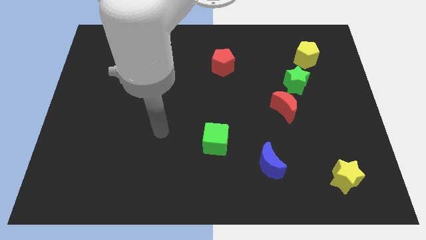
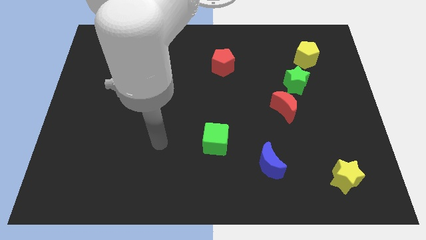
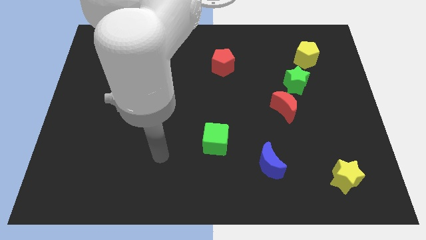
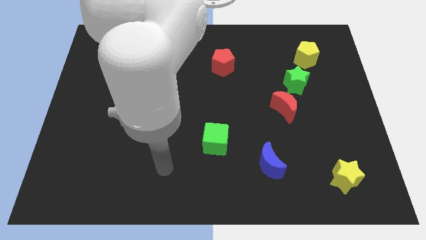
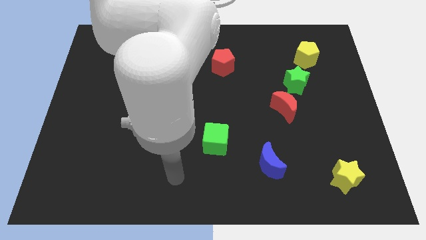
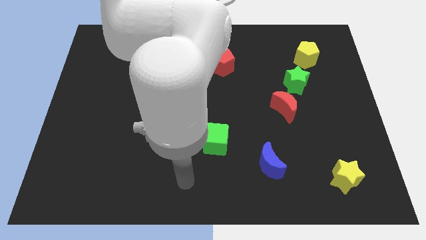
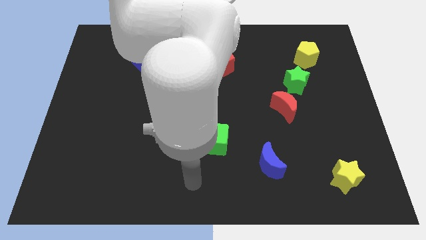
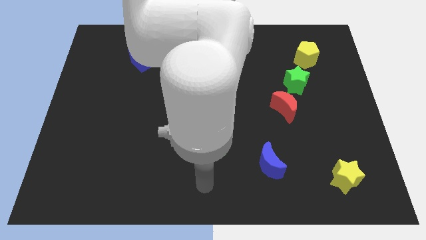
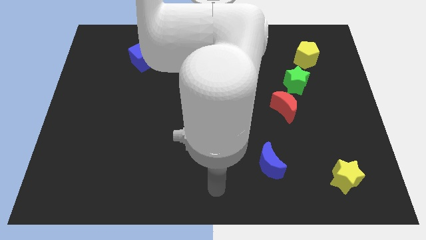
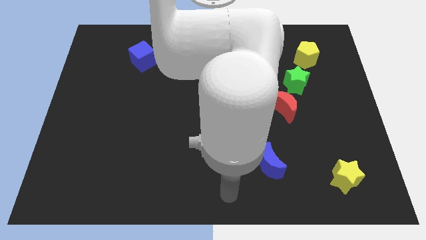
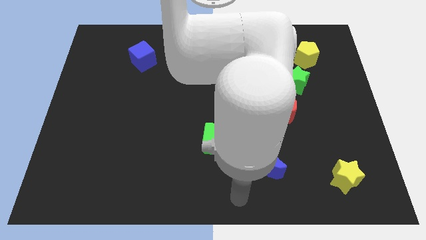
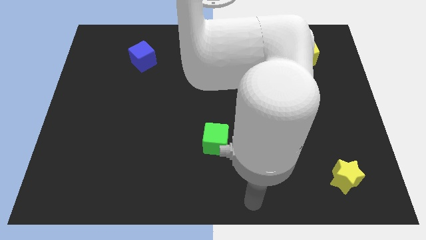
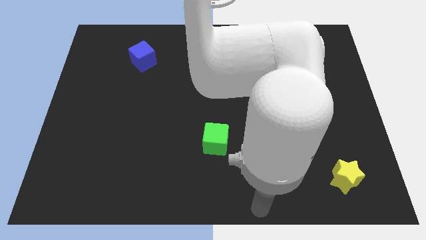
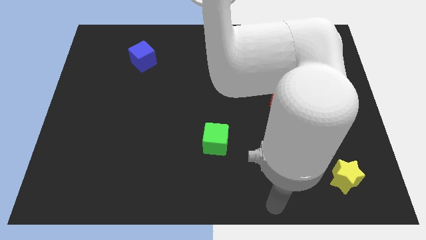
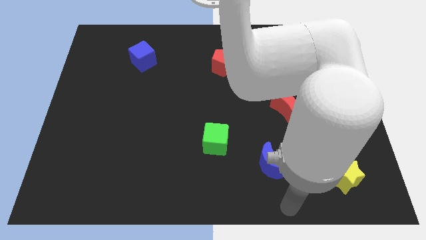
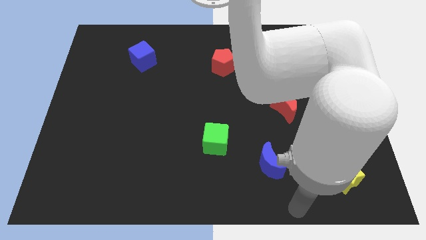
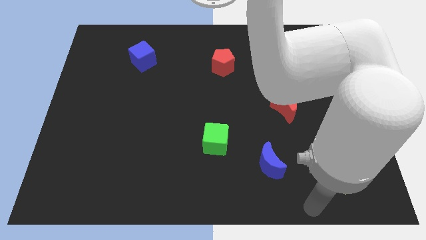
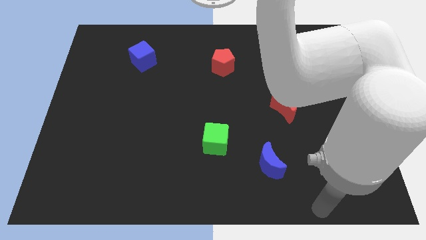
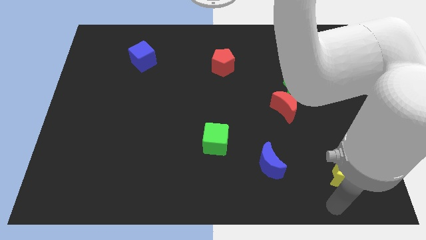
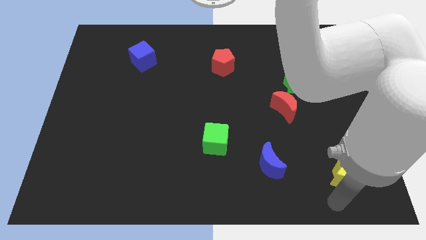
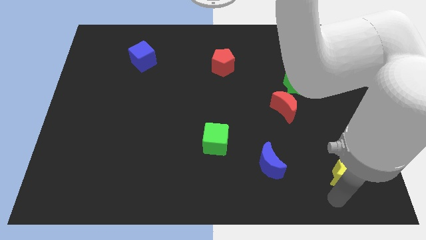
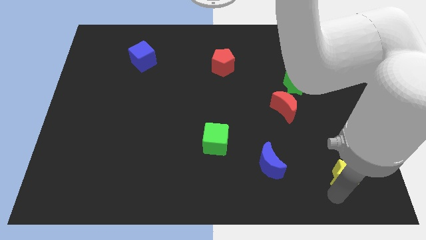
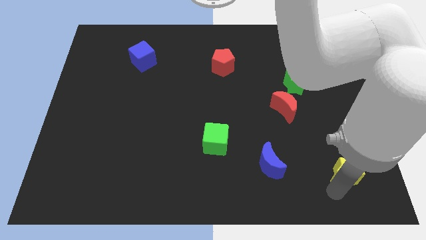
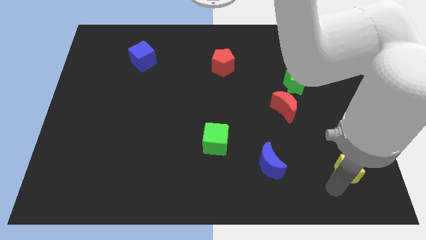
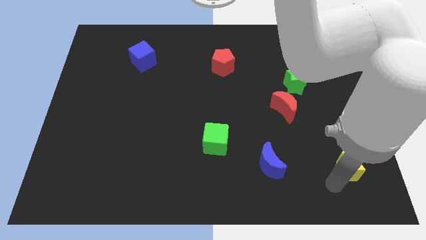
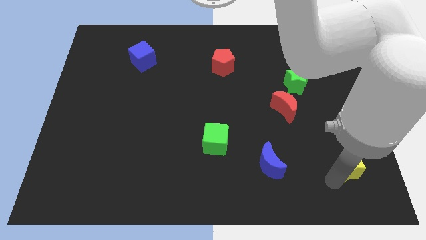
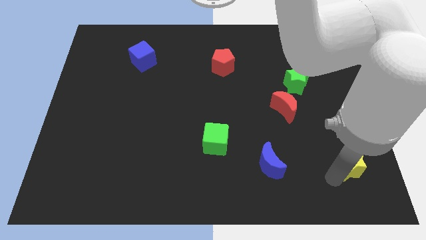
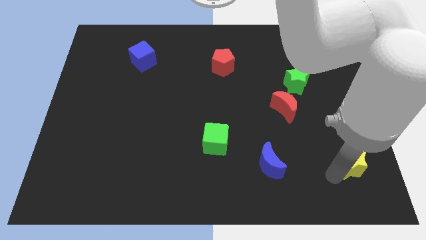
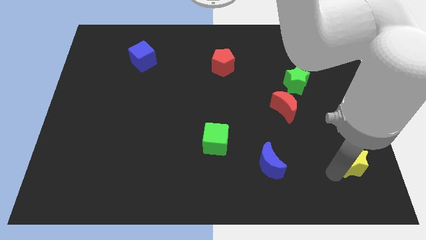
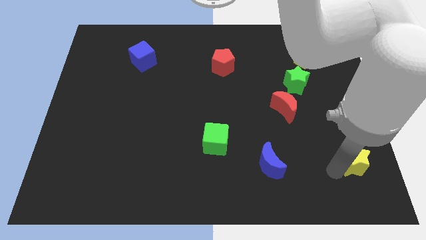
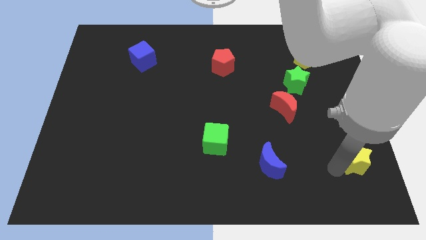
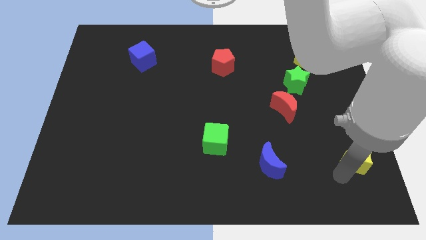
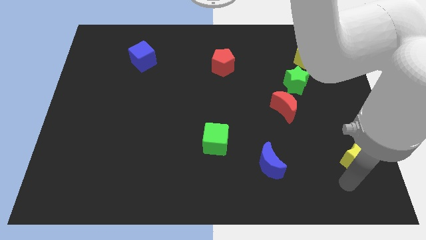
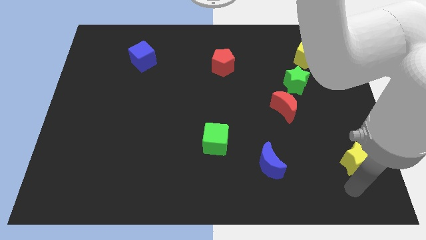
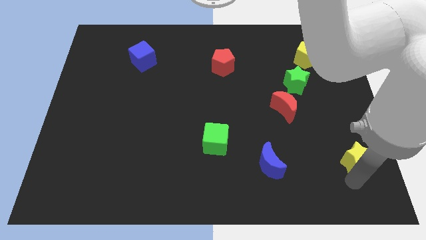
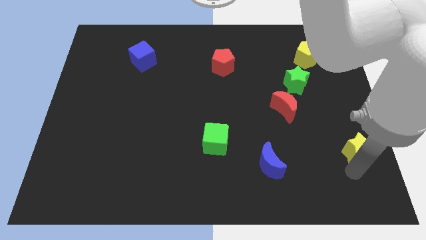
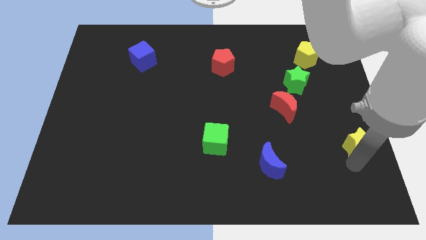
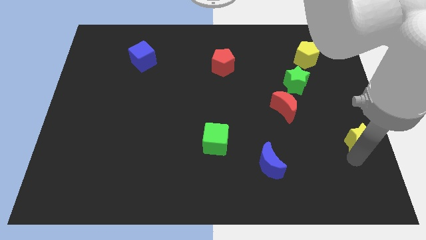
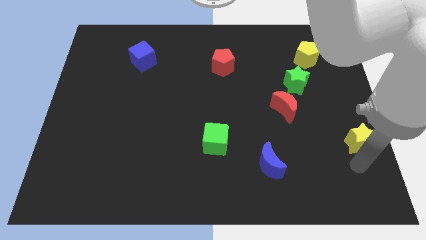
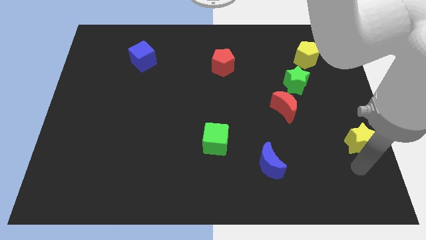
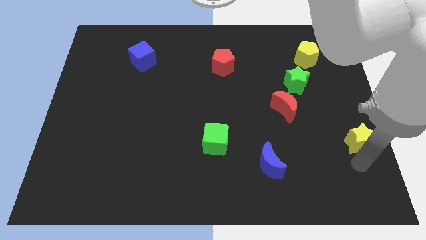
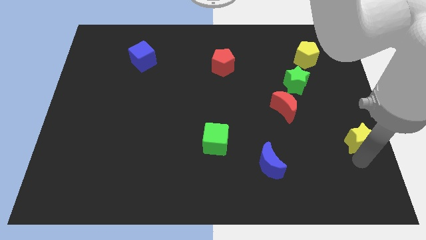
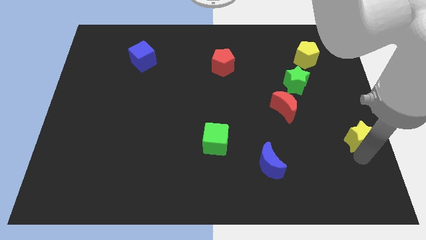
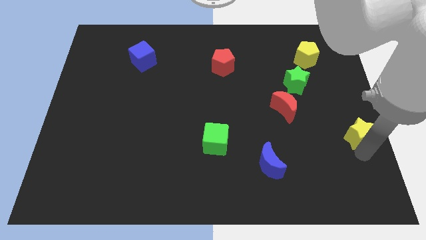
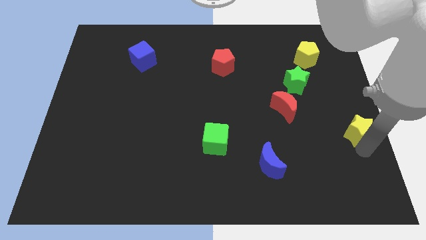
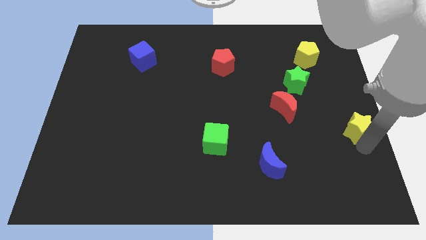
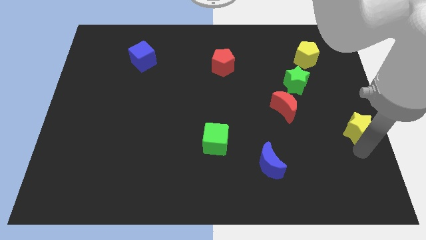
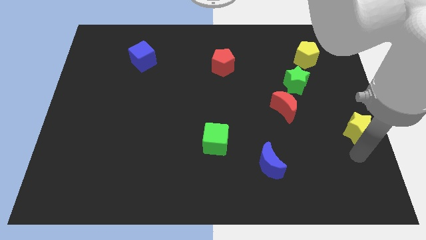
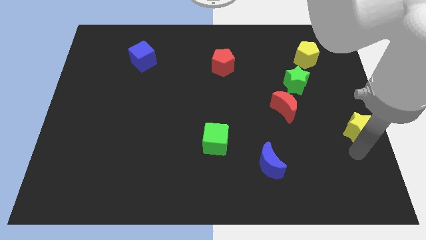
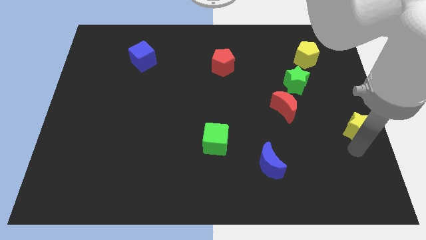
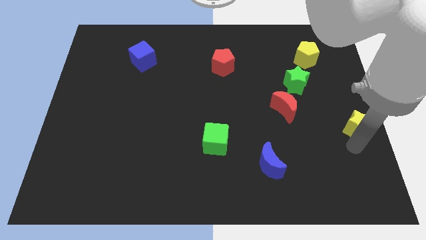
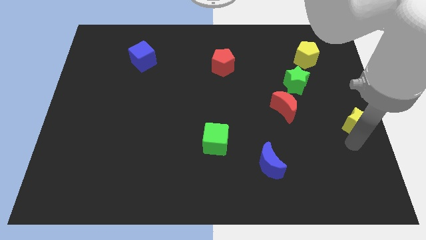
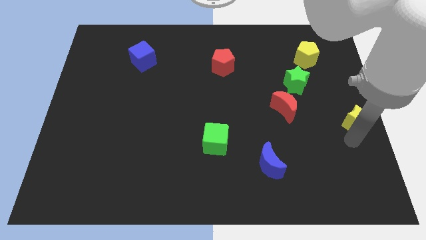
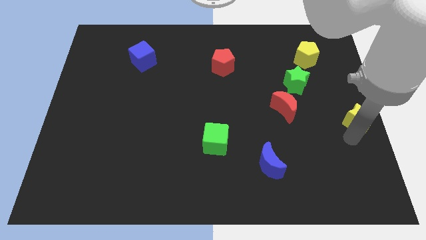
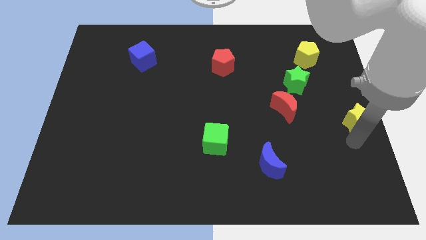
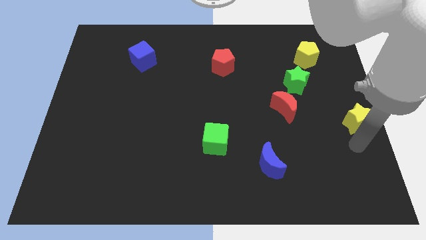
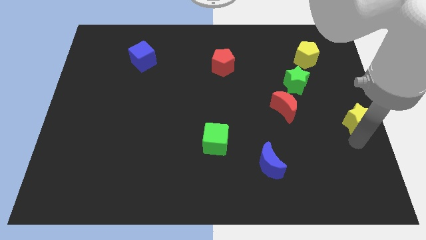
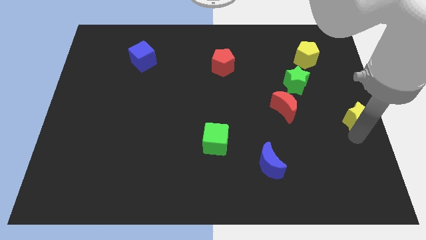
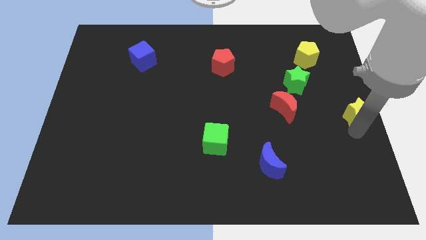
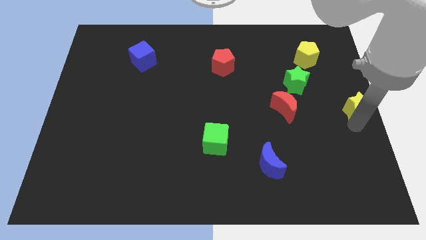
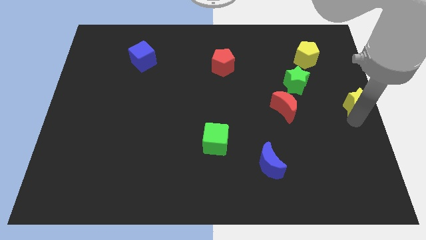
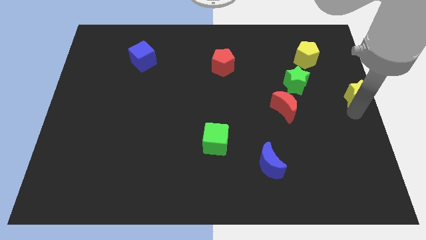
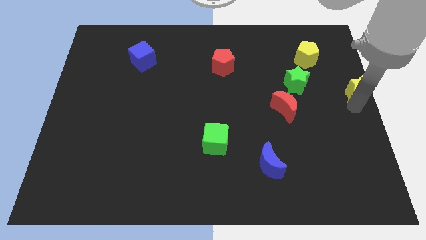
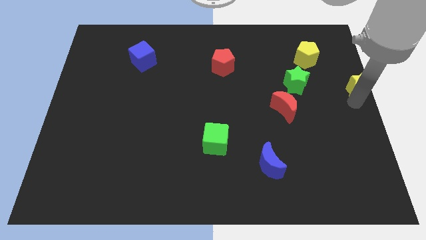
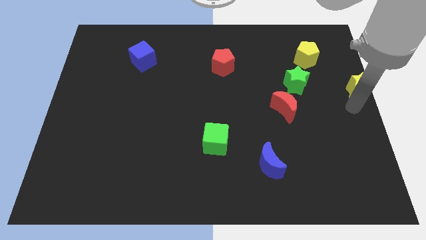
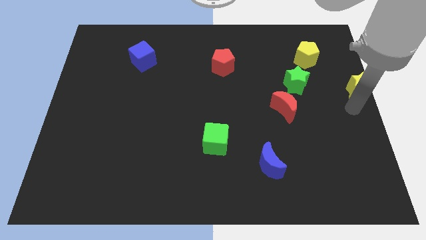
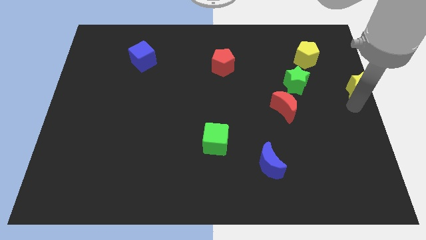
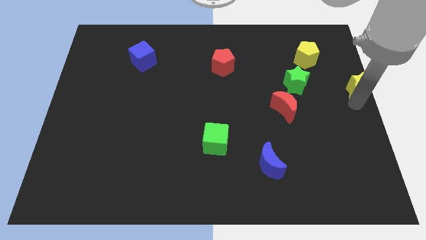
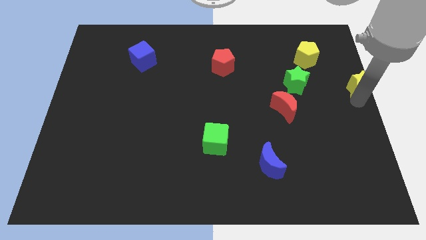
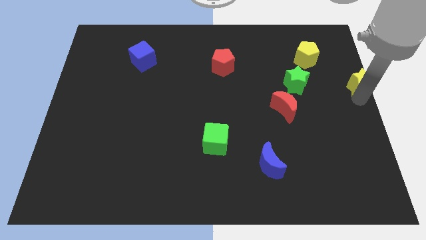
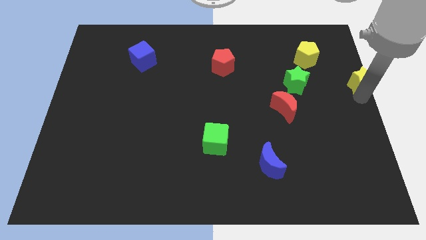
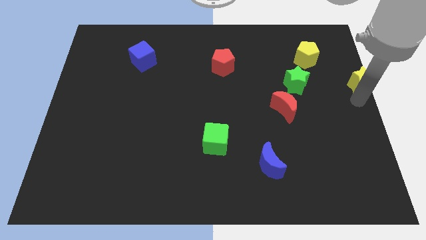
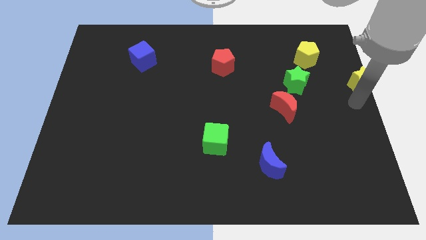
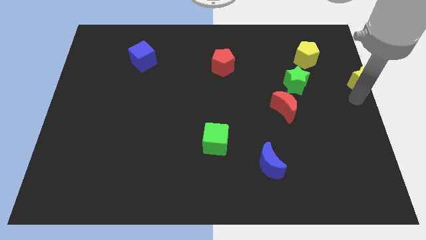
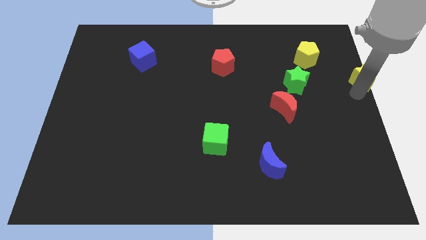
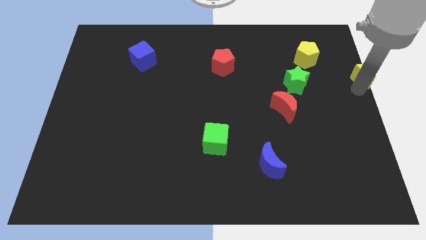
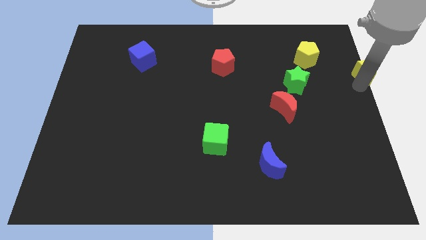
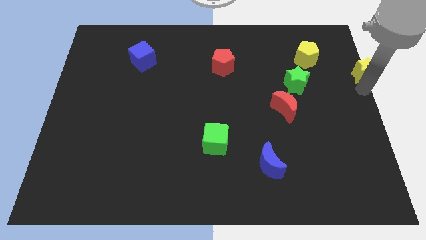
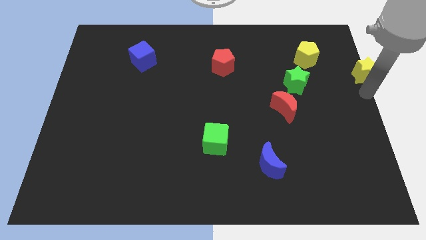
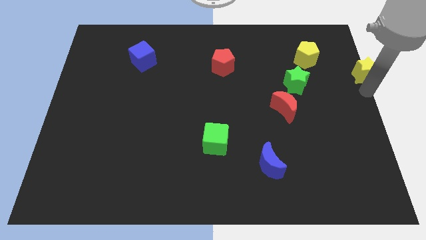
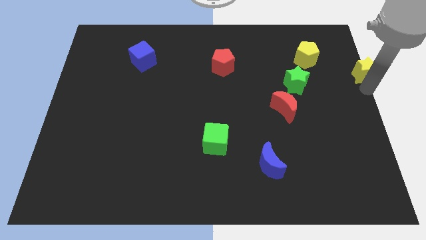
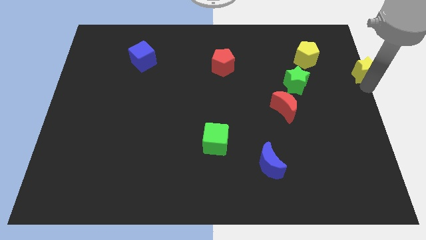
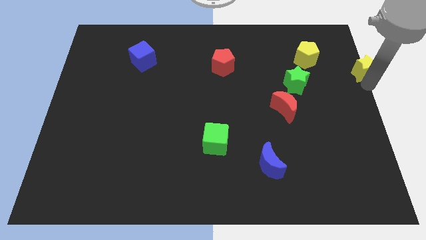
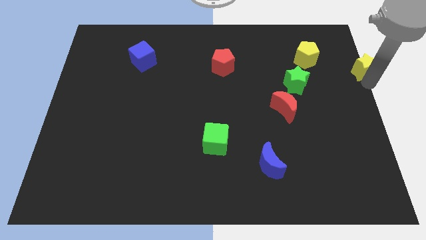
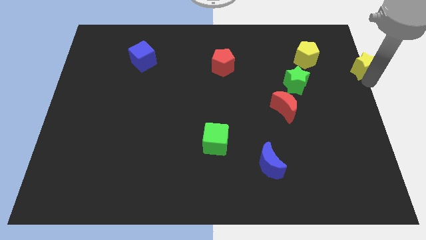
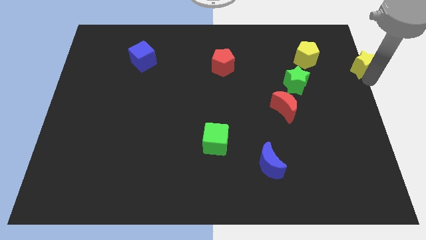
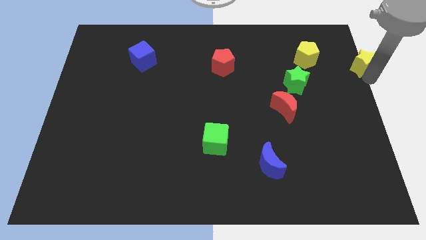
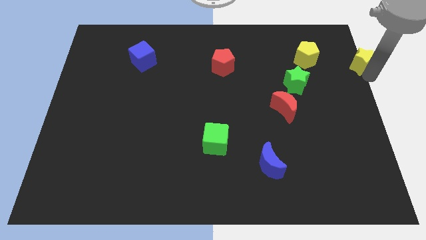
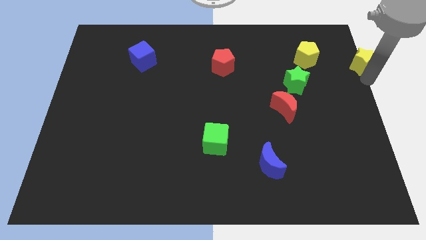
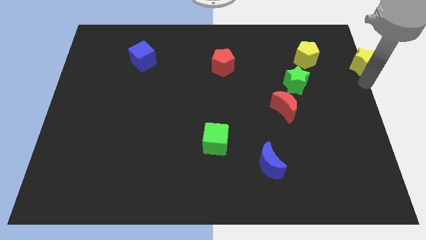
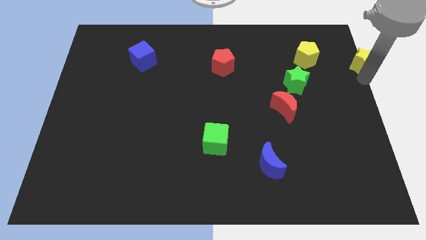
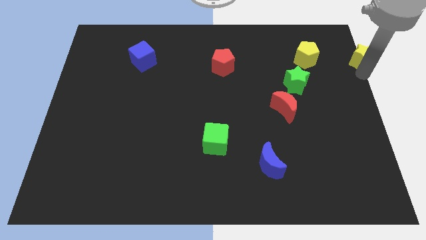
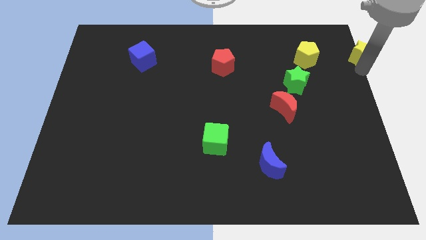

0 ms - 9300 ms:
push the yellow star to the top right of the board
